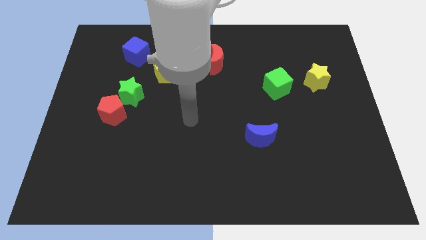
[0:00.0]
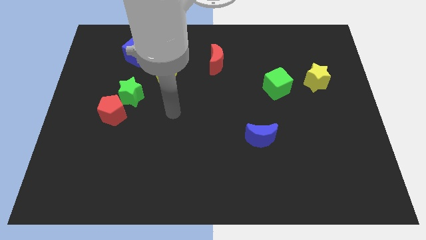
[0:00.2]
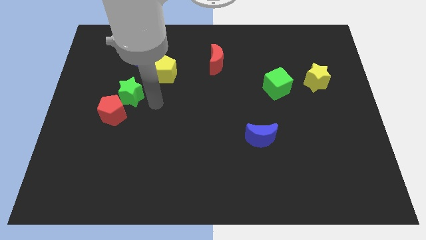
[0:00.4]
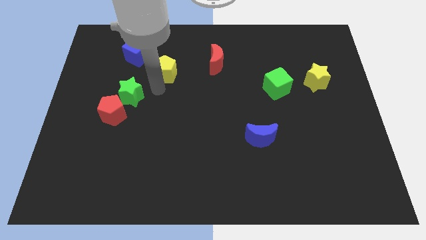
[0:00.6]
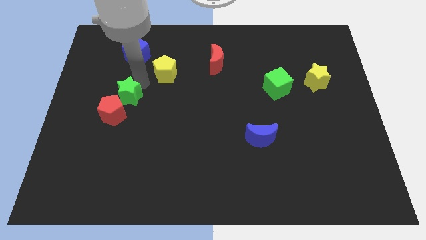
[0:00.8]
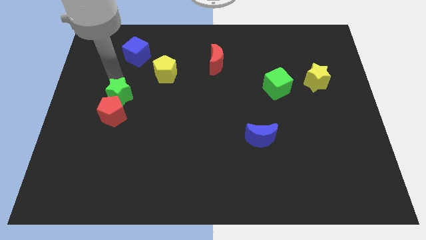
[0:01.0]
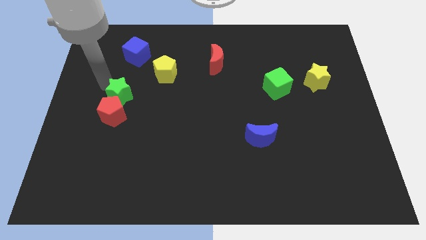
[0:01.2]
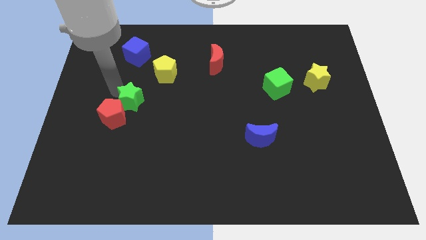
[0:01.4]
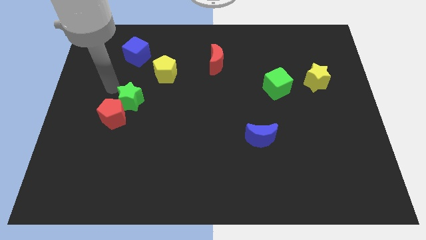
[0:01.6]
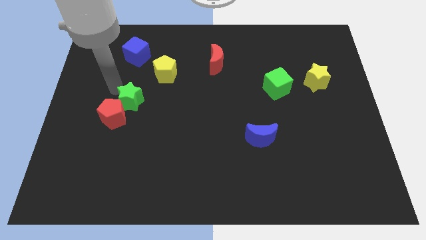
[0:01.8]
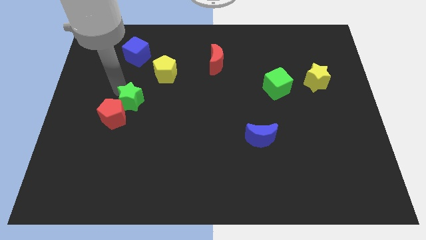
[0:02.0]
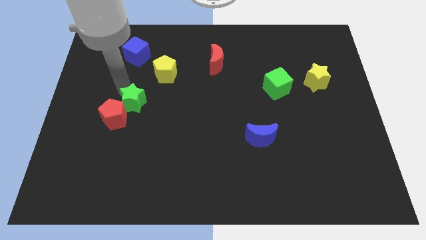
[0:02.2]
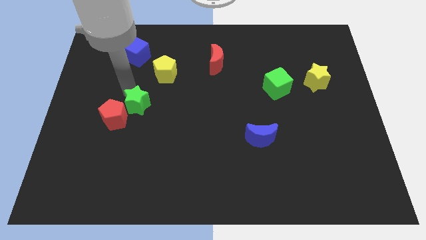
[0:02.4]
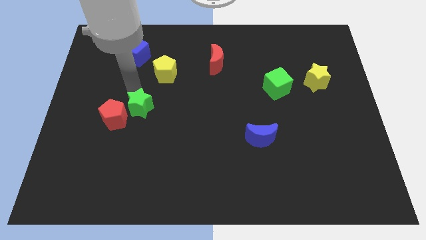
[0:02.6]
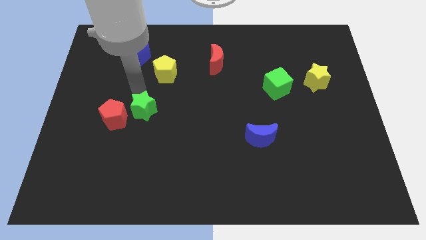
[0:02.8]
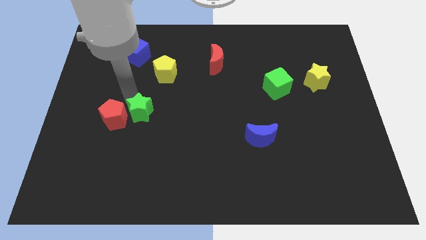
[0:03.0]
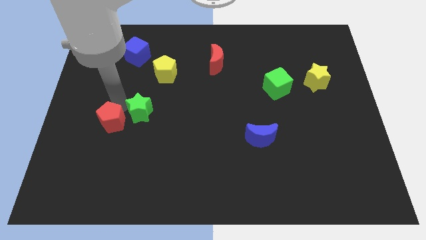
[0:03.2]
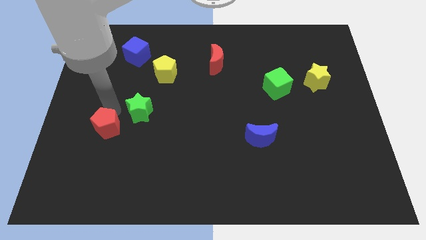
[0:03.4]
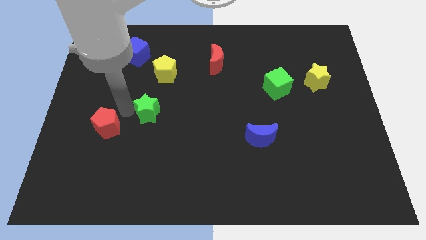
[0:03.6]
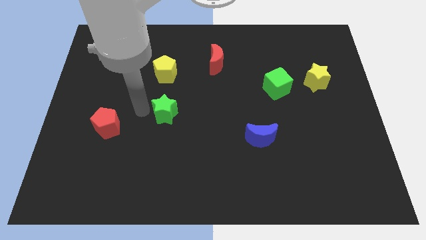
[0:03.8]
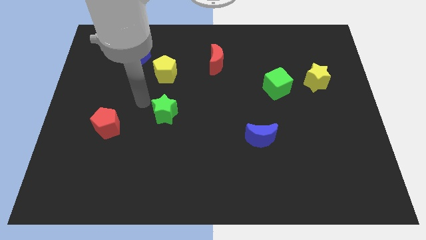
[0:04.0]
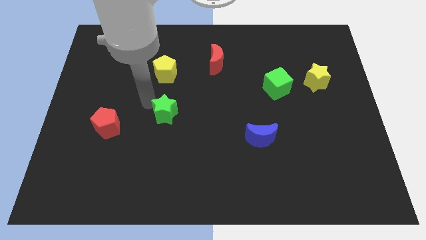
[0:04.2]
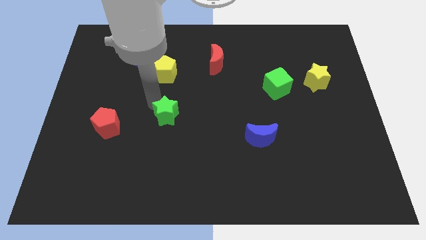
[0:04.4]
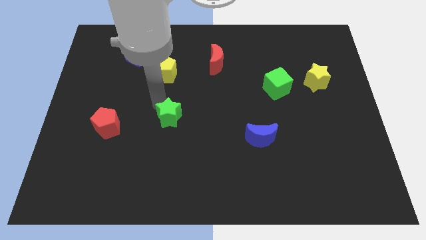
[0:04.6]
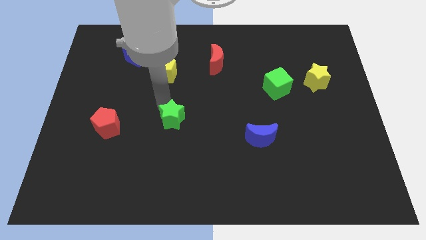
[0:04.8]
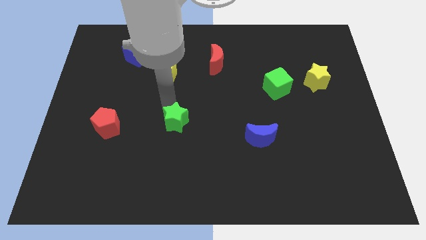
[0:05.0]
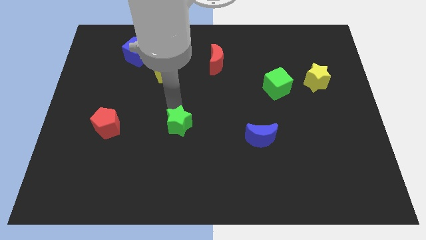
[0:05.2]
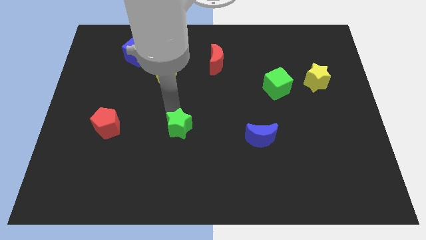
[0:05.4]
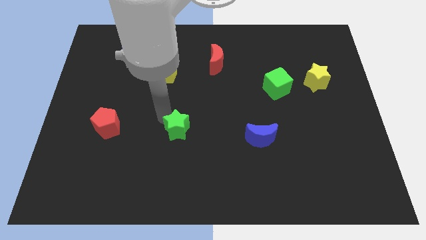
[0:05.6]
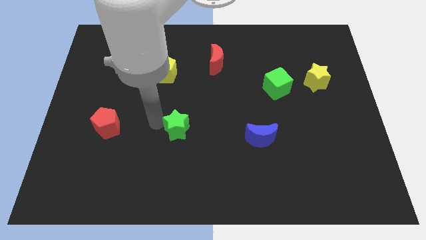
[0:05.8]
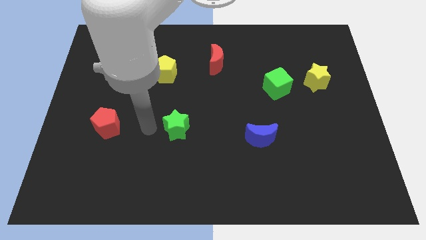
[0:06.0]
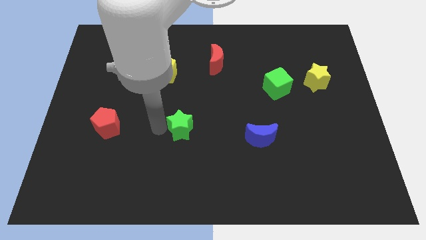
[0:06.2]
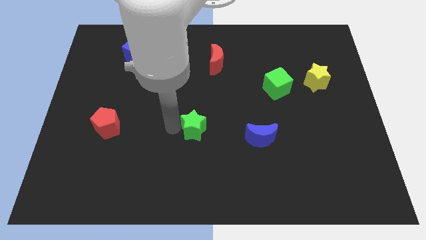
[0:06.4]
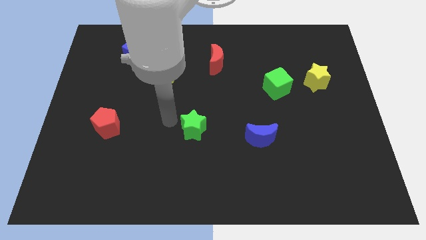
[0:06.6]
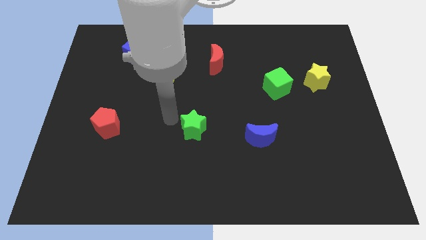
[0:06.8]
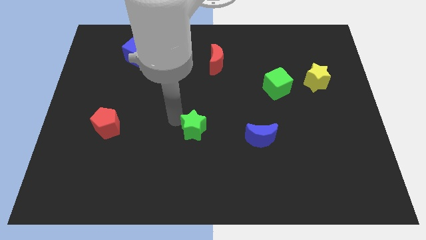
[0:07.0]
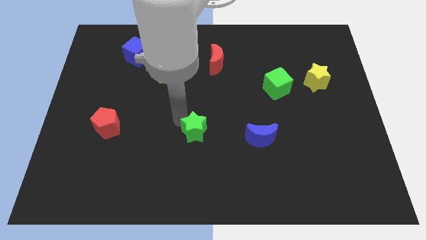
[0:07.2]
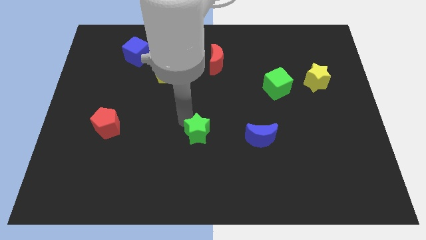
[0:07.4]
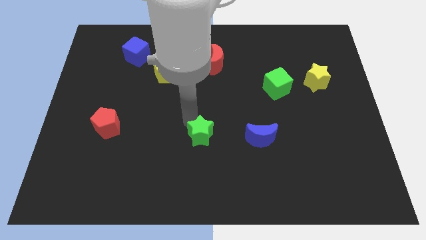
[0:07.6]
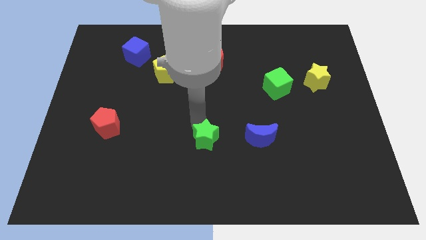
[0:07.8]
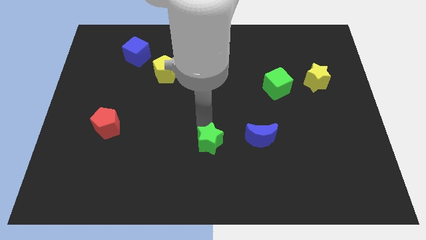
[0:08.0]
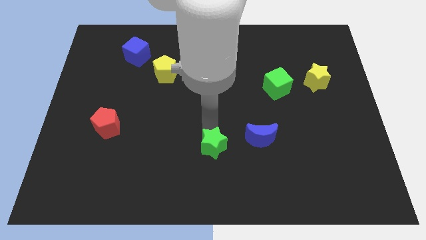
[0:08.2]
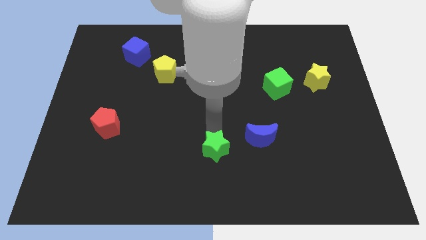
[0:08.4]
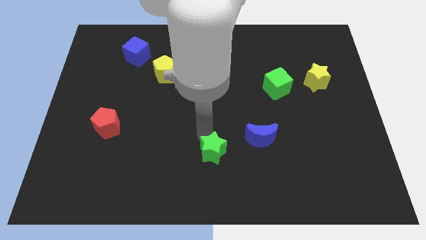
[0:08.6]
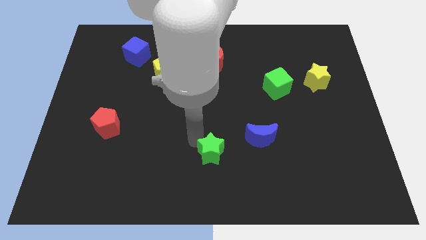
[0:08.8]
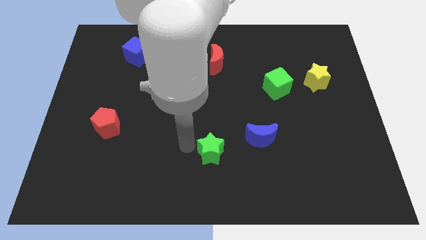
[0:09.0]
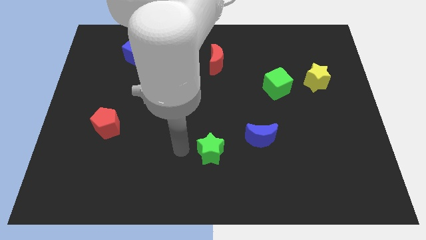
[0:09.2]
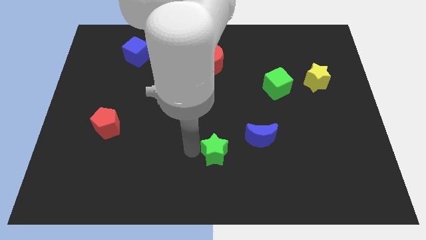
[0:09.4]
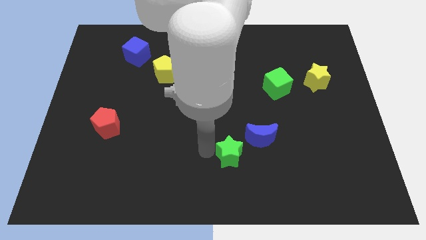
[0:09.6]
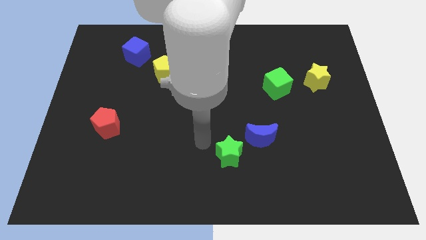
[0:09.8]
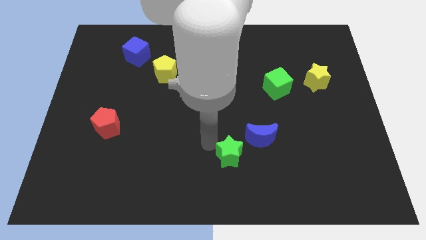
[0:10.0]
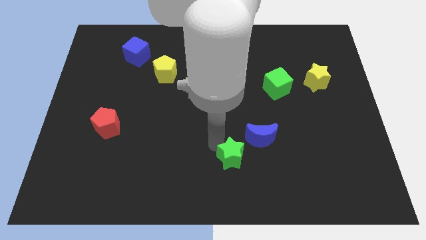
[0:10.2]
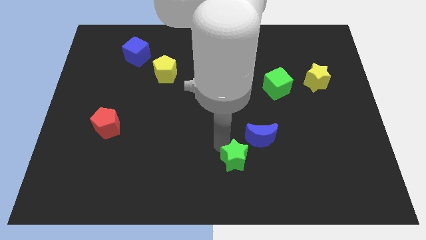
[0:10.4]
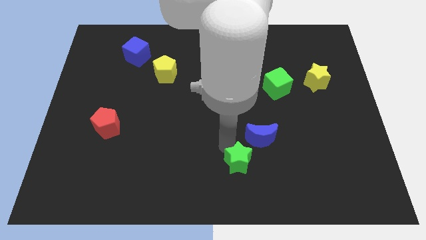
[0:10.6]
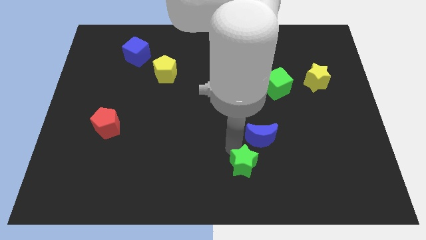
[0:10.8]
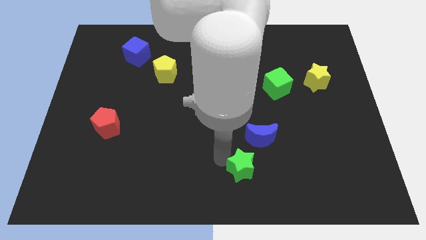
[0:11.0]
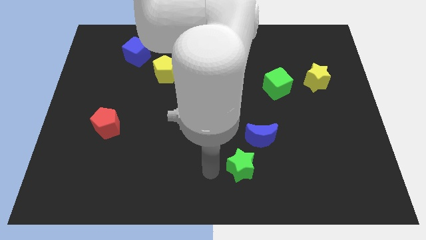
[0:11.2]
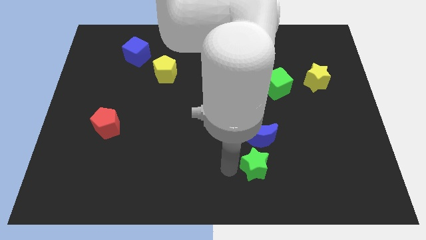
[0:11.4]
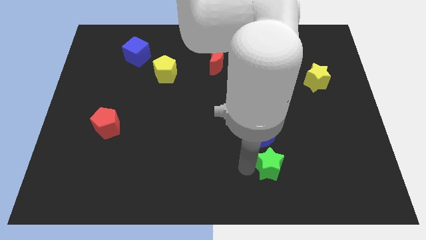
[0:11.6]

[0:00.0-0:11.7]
slide the green star to the bottom right side of the blue moon
